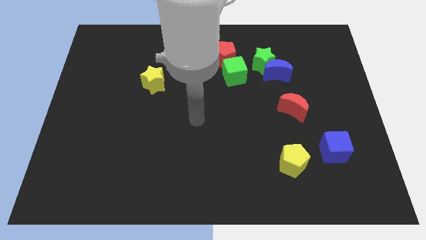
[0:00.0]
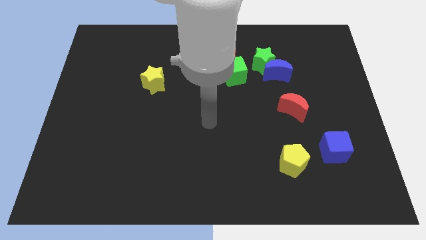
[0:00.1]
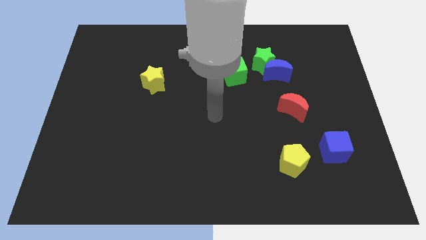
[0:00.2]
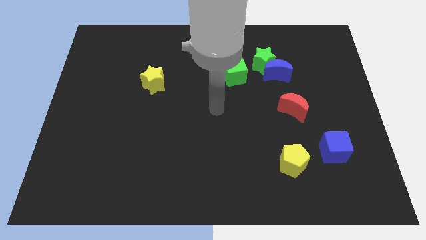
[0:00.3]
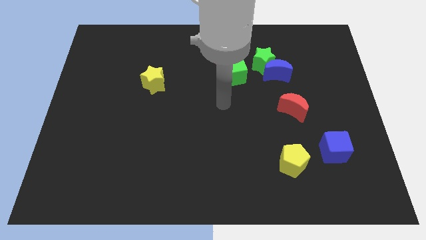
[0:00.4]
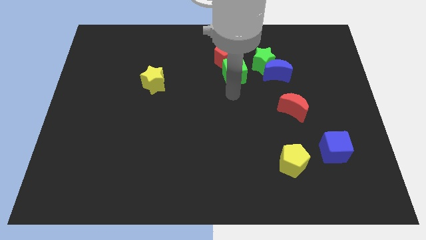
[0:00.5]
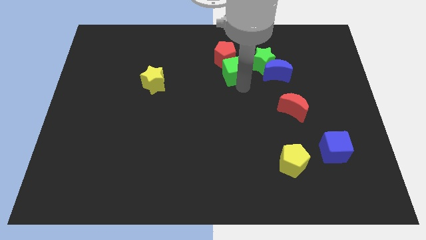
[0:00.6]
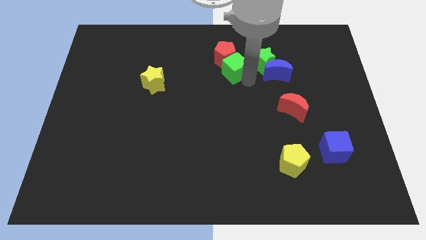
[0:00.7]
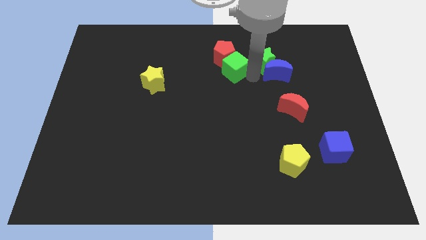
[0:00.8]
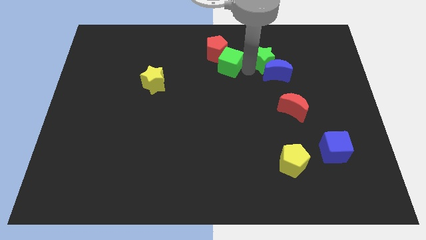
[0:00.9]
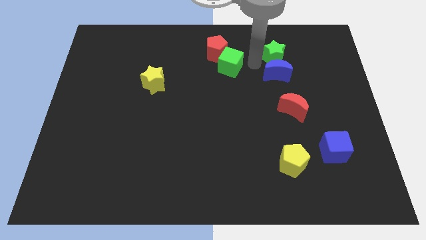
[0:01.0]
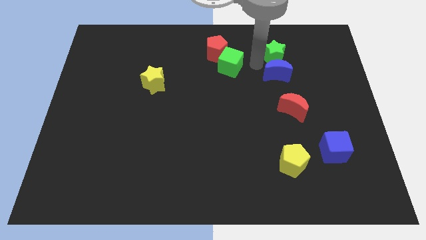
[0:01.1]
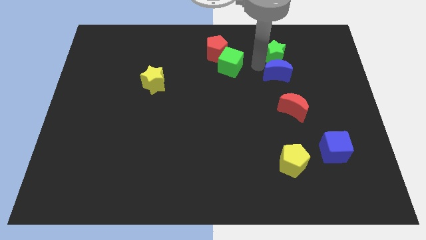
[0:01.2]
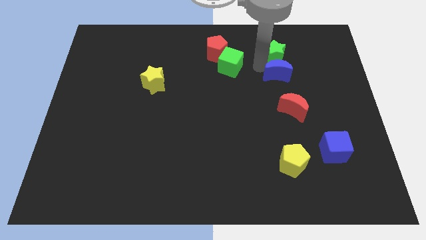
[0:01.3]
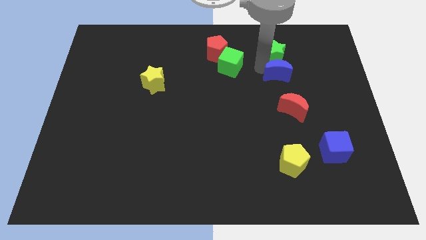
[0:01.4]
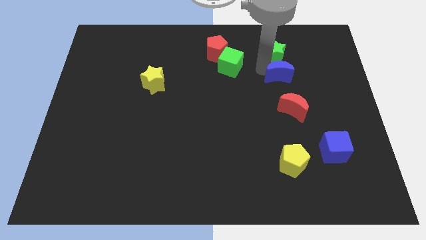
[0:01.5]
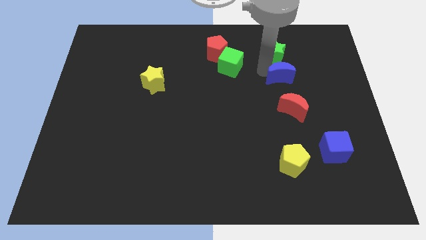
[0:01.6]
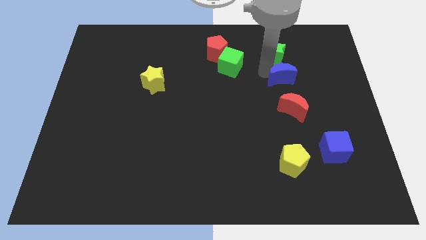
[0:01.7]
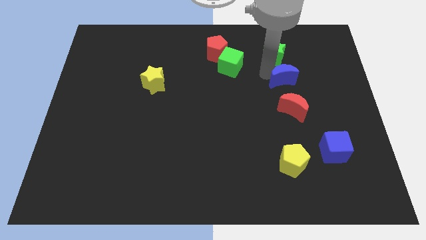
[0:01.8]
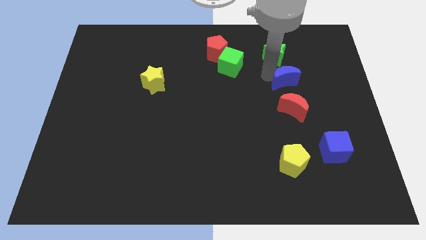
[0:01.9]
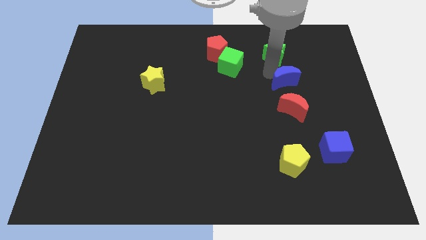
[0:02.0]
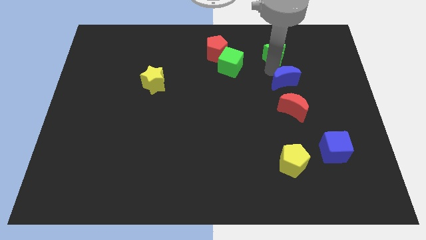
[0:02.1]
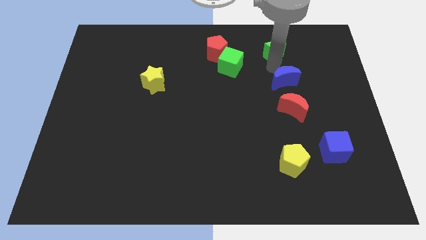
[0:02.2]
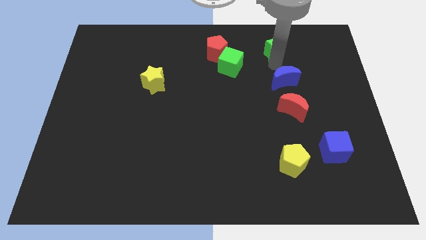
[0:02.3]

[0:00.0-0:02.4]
pull the blue moon apart from the green star

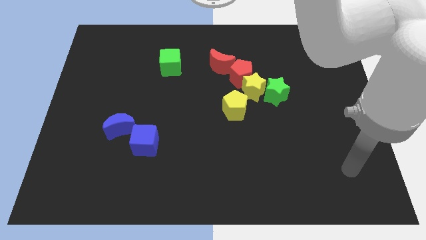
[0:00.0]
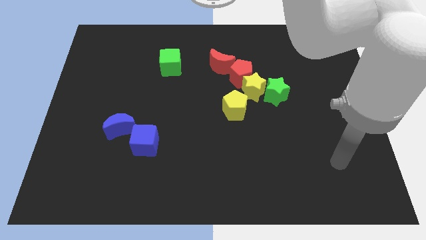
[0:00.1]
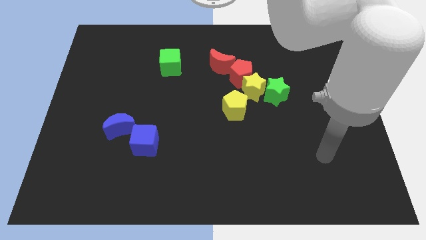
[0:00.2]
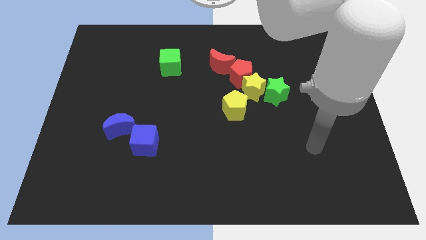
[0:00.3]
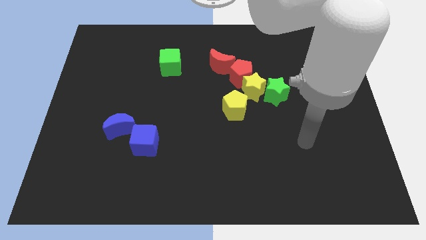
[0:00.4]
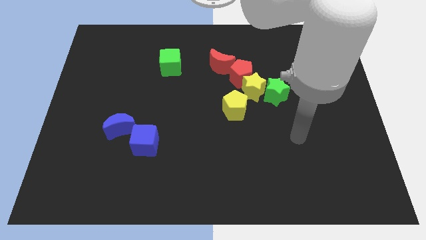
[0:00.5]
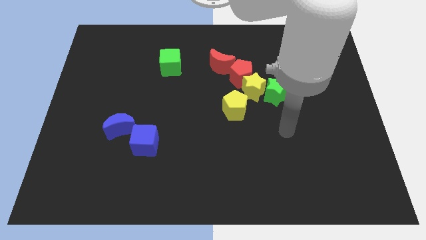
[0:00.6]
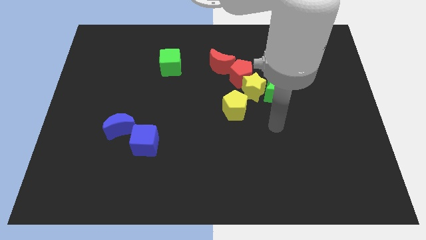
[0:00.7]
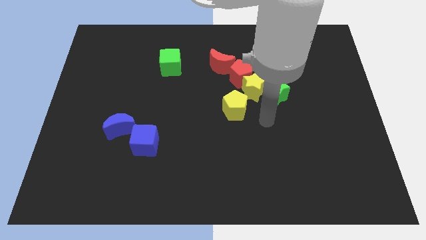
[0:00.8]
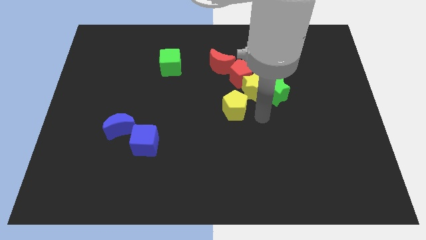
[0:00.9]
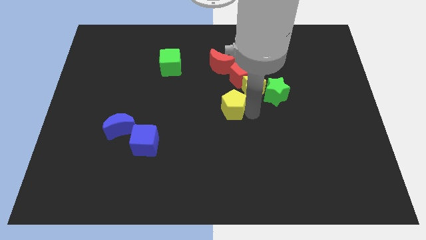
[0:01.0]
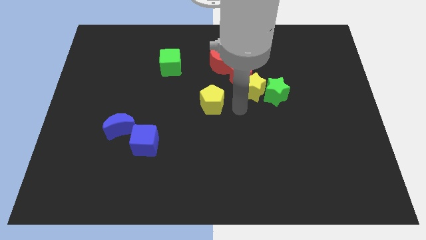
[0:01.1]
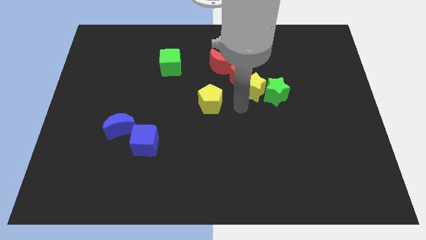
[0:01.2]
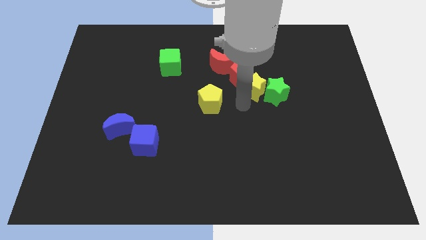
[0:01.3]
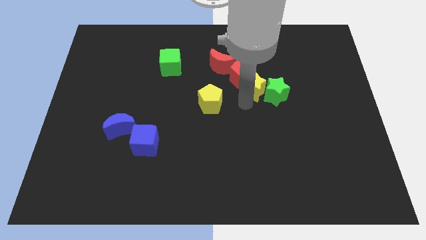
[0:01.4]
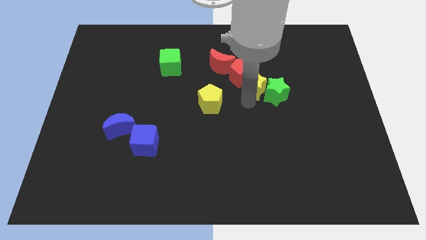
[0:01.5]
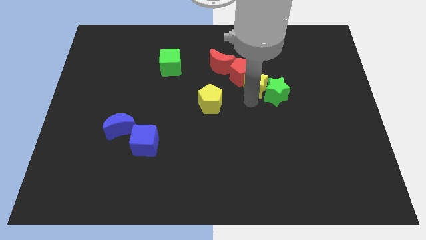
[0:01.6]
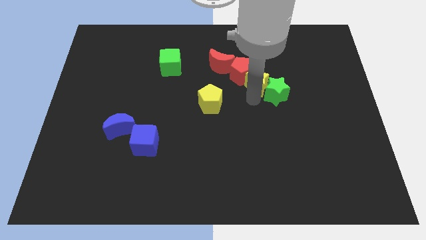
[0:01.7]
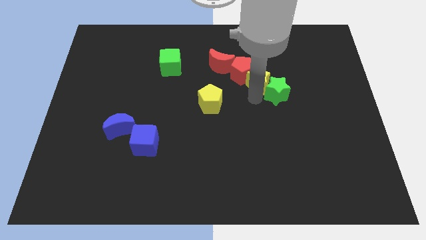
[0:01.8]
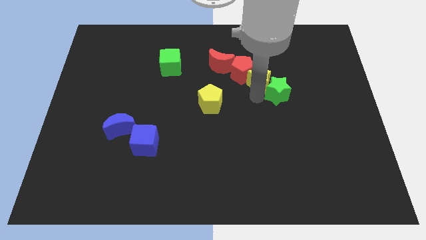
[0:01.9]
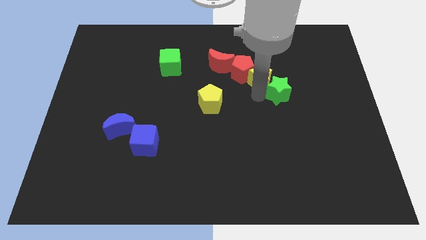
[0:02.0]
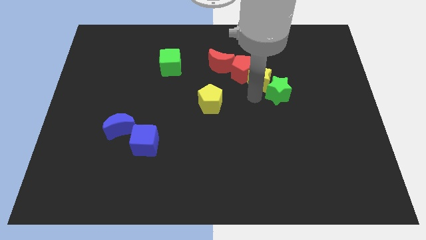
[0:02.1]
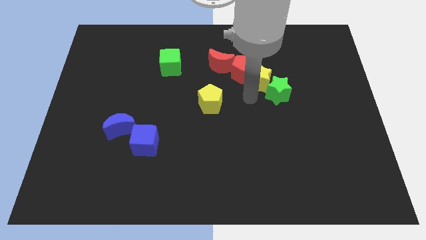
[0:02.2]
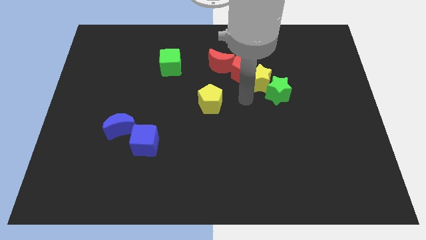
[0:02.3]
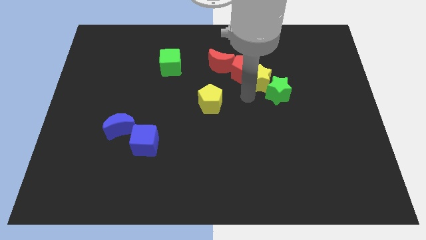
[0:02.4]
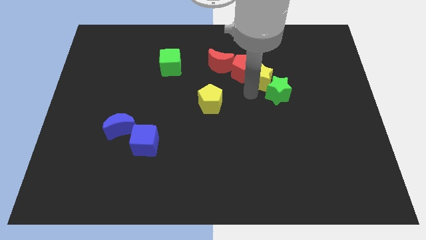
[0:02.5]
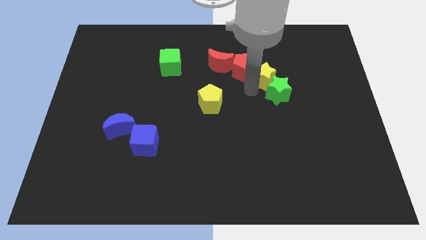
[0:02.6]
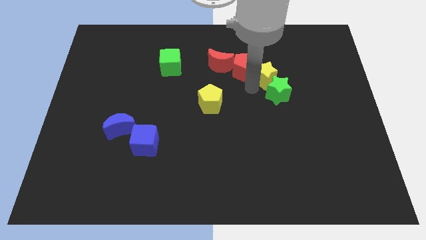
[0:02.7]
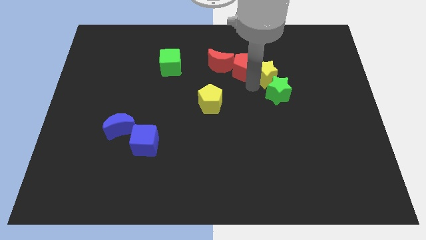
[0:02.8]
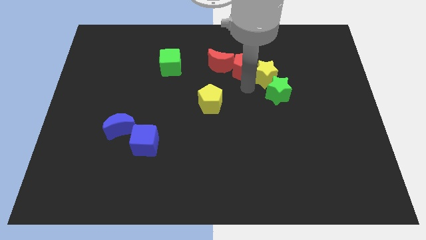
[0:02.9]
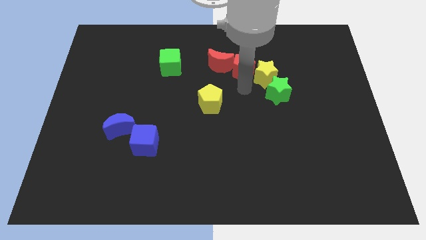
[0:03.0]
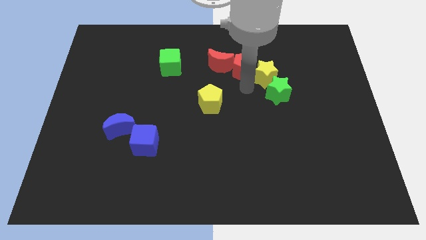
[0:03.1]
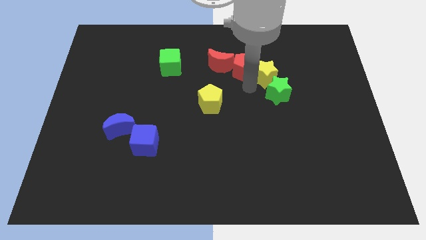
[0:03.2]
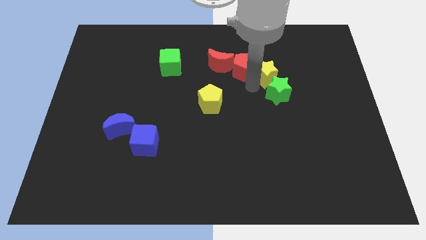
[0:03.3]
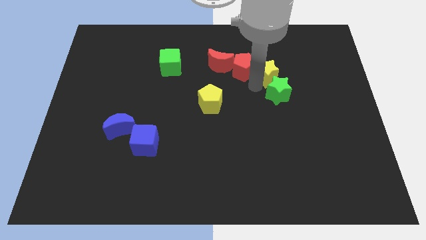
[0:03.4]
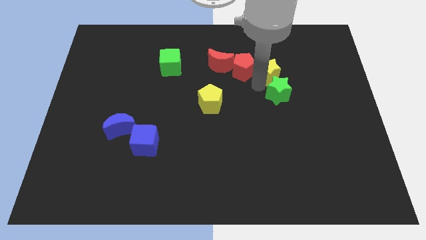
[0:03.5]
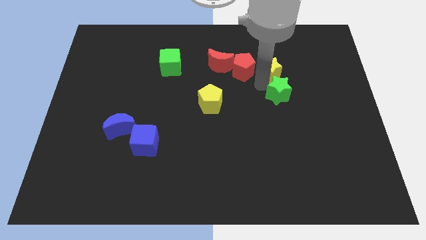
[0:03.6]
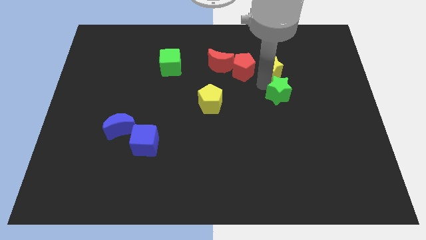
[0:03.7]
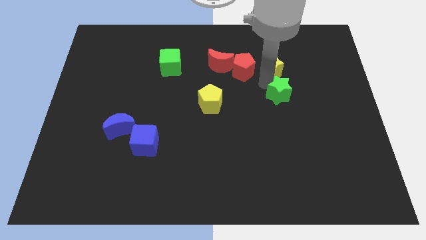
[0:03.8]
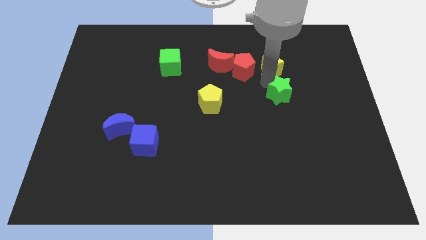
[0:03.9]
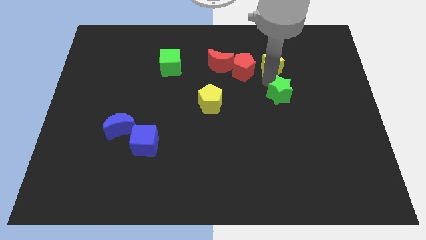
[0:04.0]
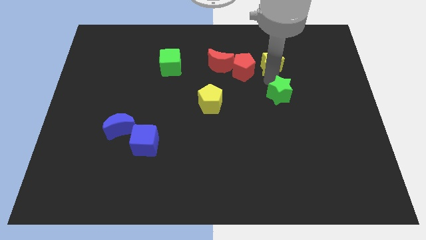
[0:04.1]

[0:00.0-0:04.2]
separate the yellow star from the clump

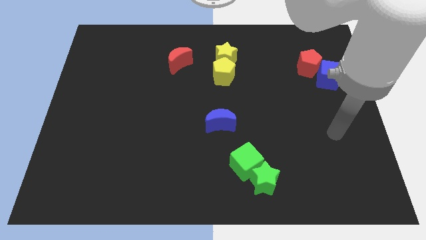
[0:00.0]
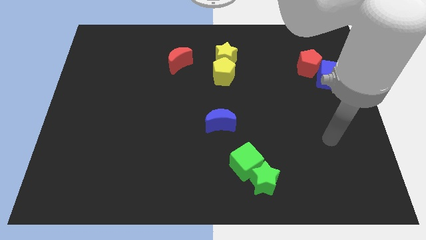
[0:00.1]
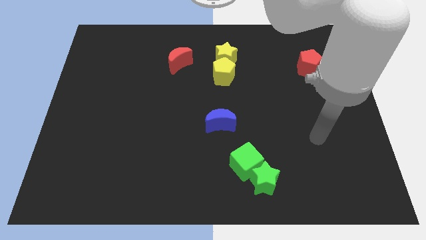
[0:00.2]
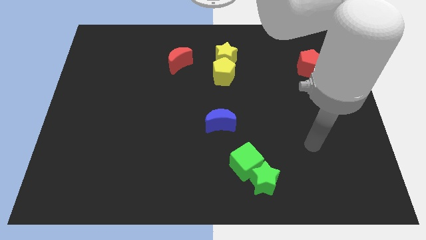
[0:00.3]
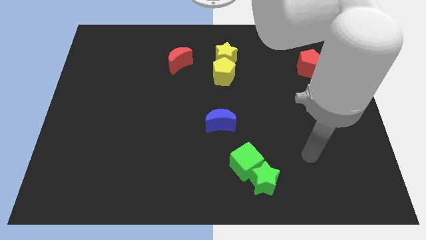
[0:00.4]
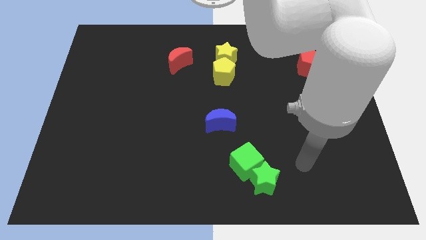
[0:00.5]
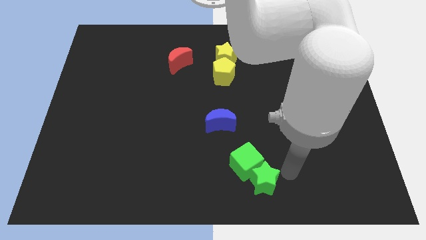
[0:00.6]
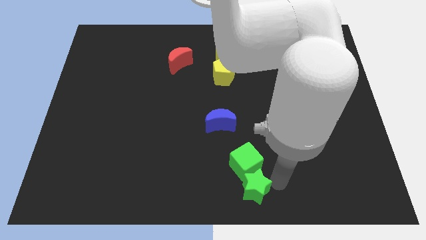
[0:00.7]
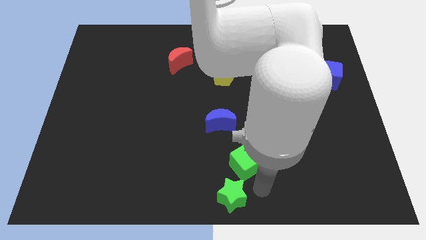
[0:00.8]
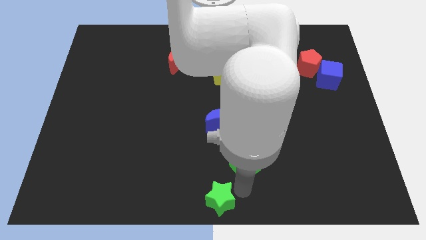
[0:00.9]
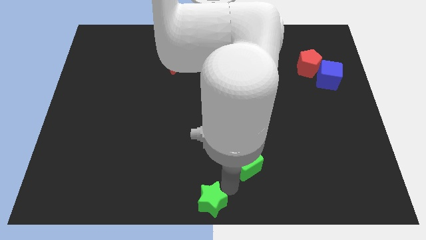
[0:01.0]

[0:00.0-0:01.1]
separate the green cube from the green star

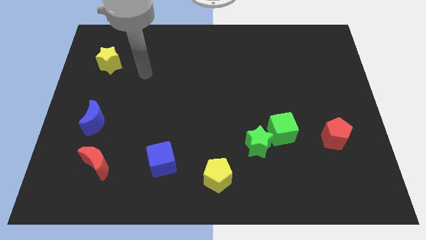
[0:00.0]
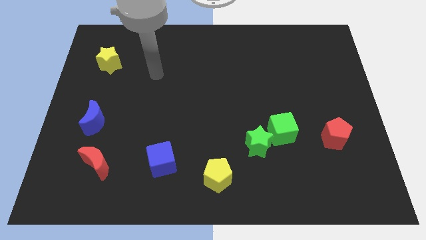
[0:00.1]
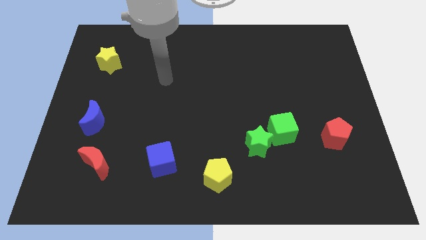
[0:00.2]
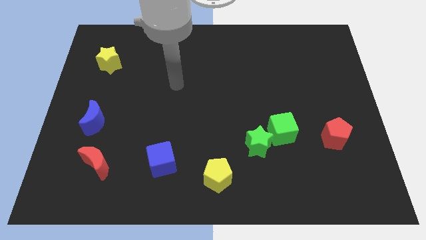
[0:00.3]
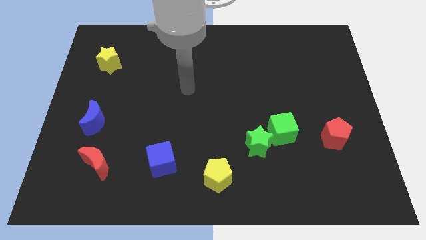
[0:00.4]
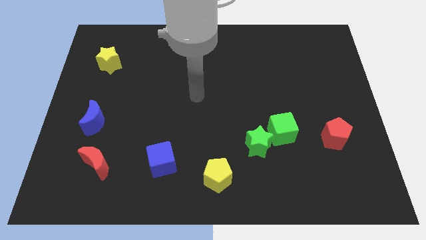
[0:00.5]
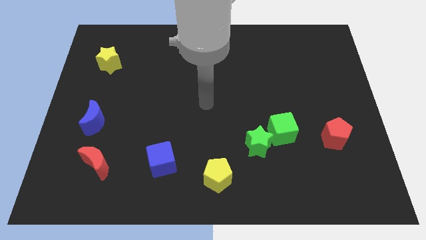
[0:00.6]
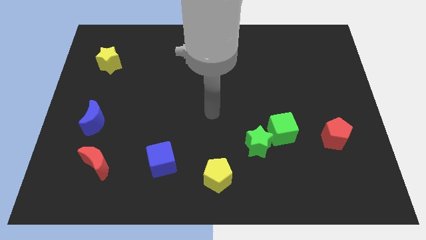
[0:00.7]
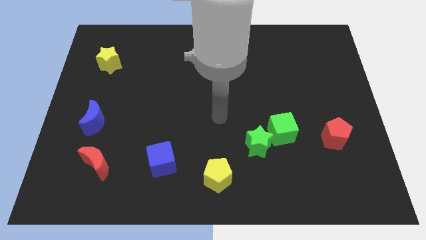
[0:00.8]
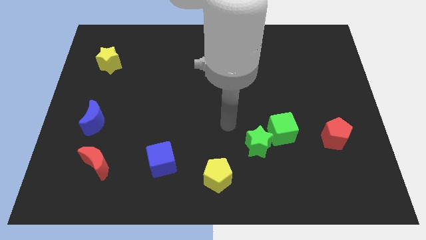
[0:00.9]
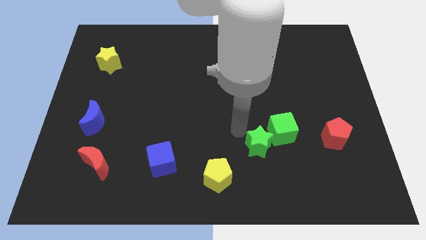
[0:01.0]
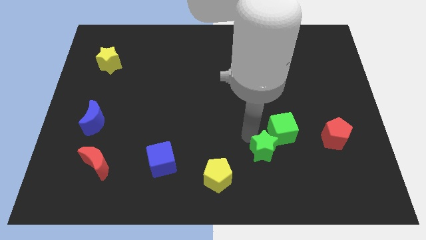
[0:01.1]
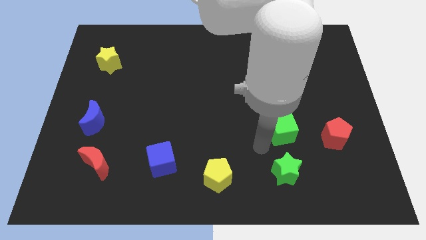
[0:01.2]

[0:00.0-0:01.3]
move the green cube away from the green star

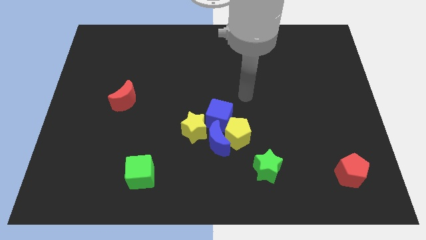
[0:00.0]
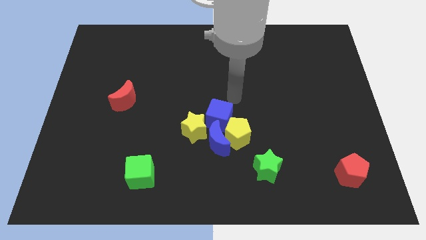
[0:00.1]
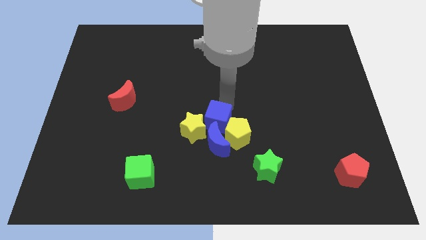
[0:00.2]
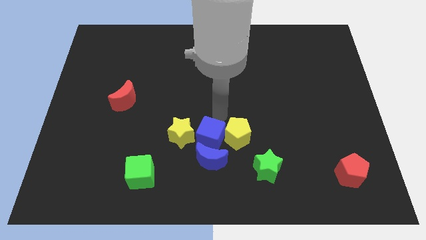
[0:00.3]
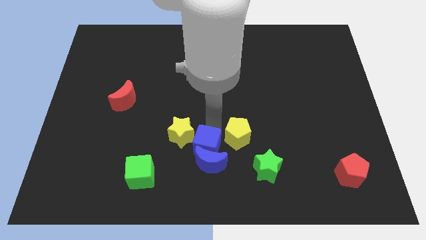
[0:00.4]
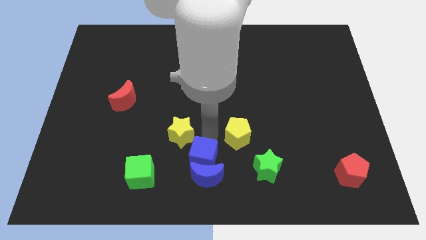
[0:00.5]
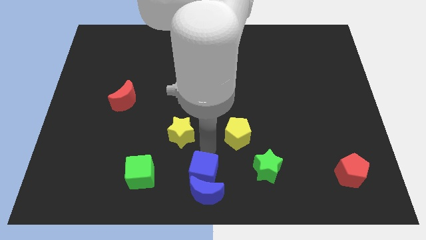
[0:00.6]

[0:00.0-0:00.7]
move the blue moon away from the yellow pentagon, yellow star, and blue cube
